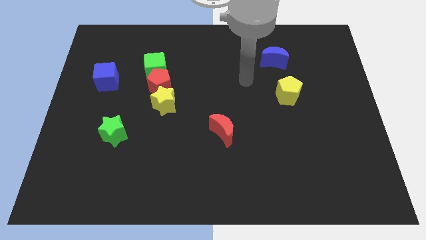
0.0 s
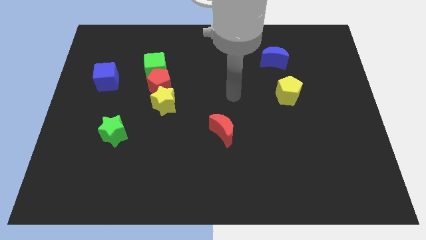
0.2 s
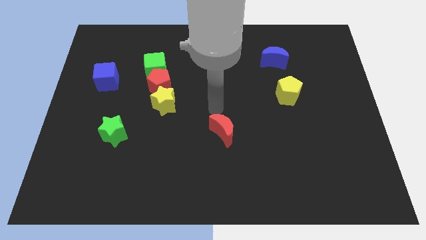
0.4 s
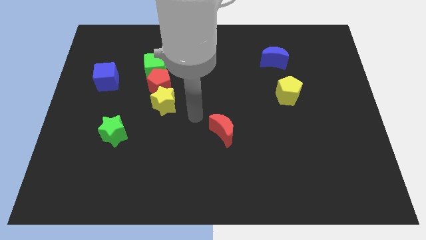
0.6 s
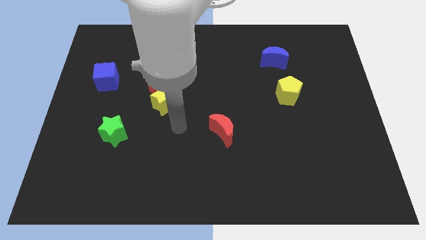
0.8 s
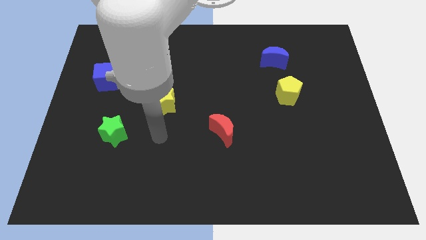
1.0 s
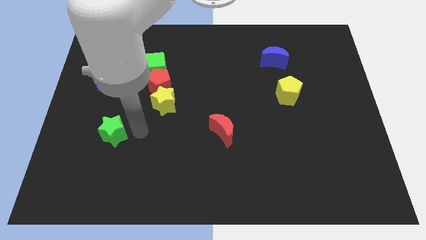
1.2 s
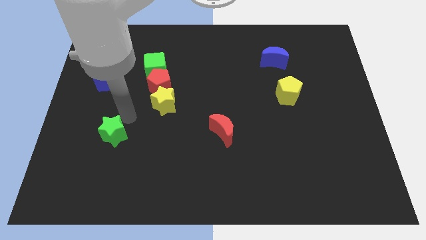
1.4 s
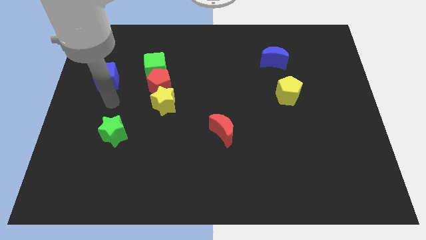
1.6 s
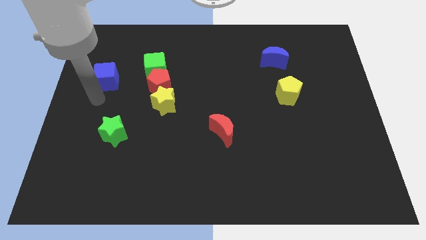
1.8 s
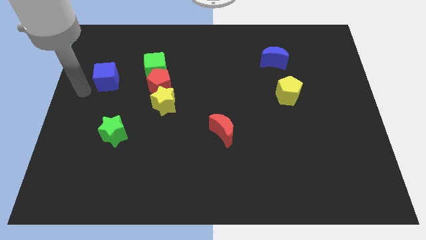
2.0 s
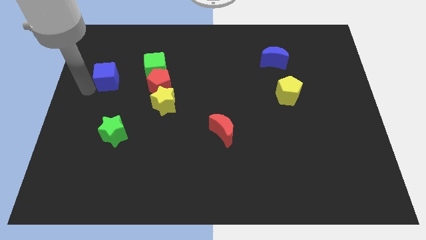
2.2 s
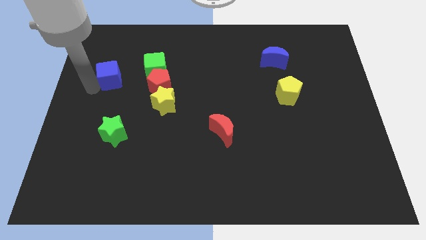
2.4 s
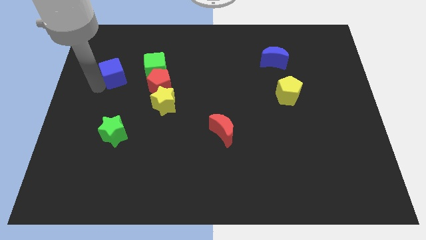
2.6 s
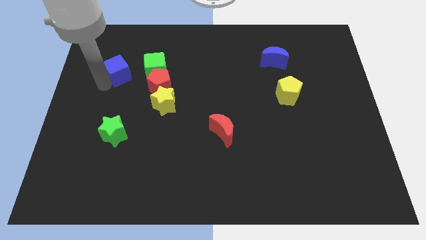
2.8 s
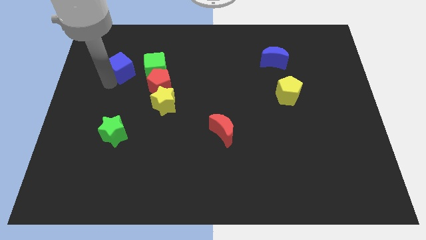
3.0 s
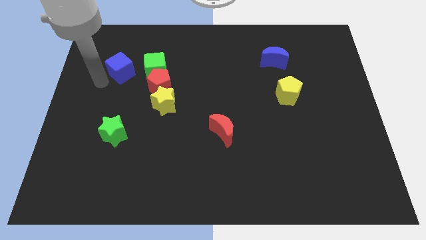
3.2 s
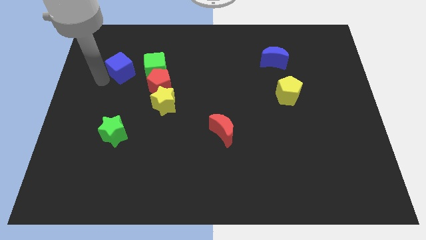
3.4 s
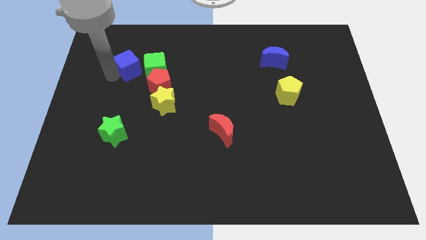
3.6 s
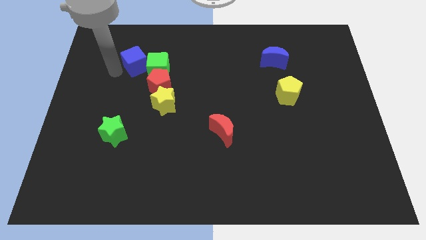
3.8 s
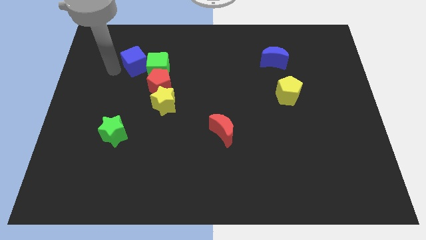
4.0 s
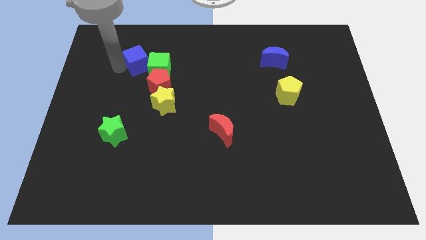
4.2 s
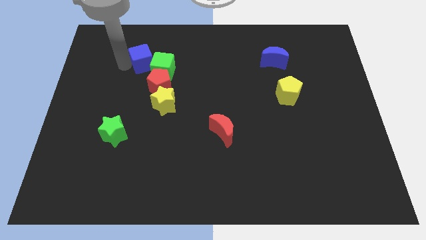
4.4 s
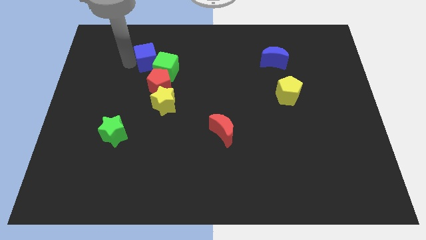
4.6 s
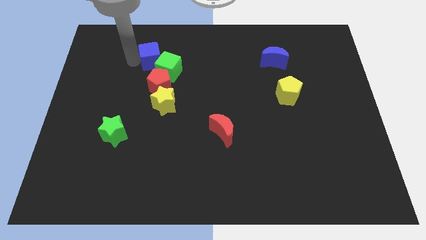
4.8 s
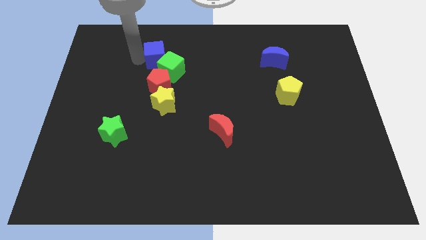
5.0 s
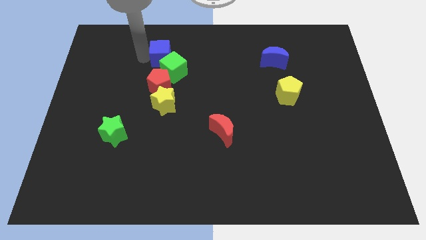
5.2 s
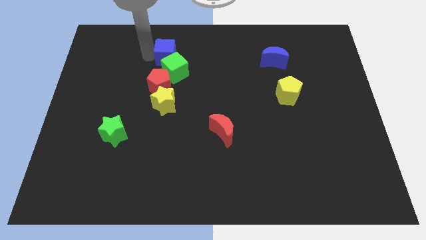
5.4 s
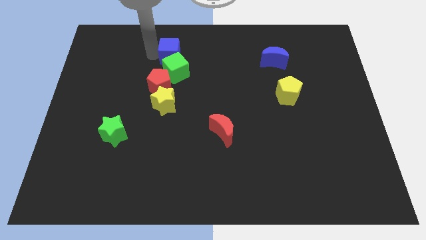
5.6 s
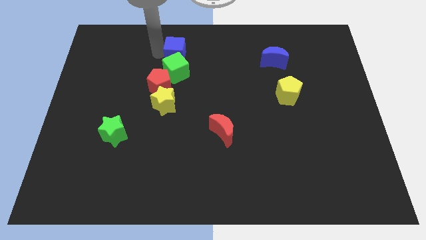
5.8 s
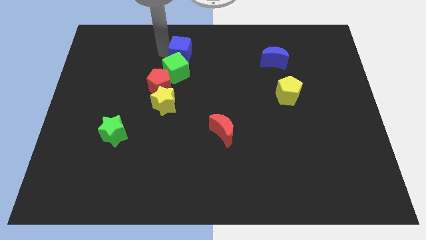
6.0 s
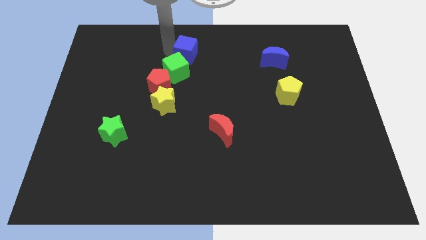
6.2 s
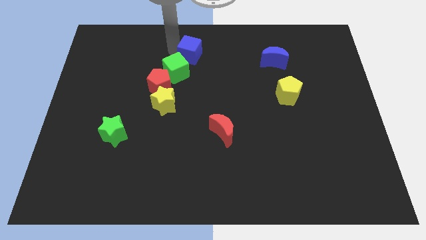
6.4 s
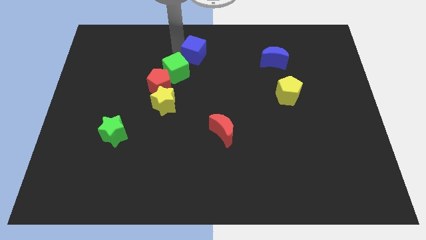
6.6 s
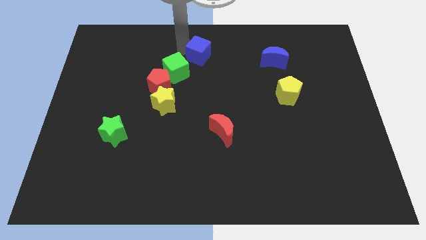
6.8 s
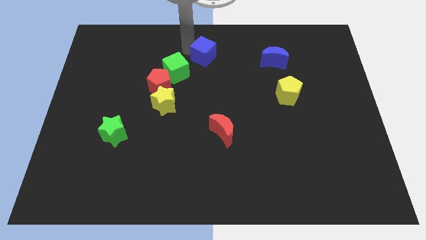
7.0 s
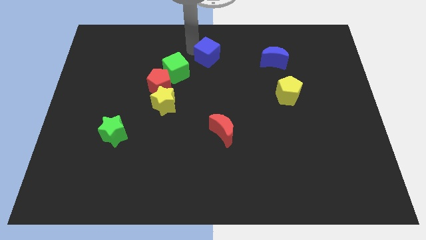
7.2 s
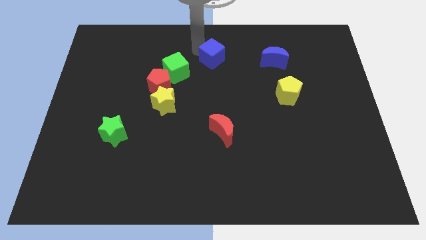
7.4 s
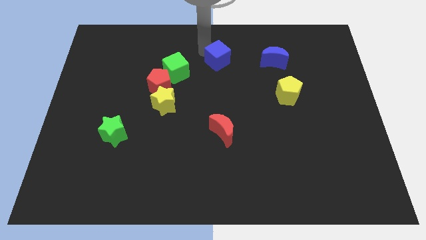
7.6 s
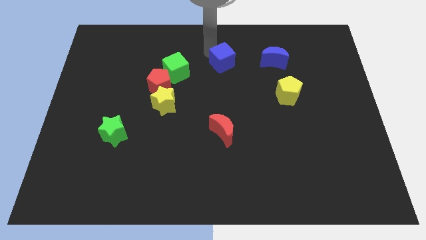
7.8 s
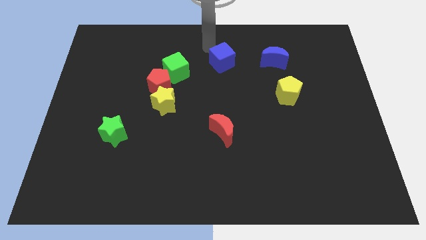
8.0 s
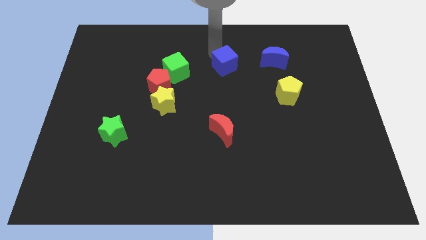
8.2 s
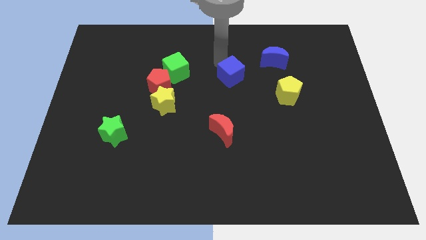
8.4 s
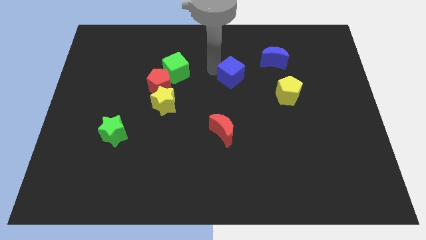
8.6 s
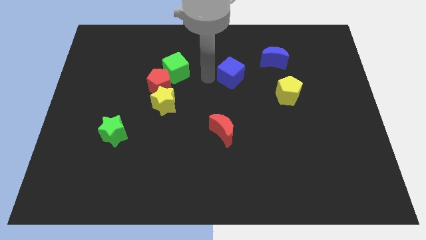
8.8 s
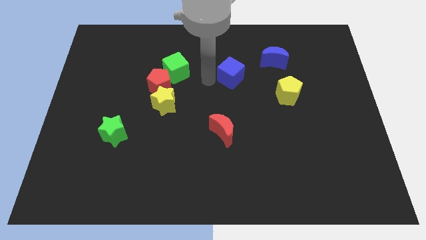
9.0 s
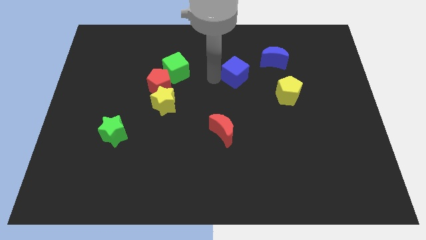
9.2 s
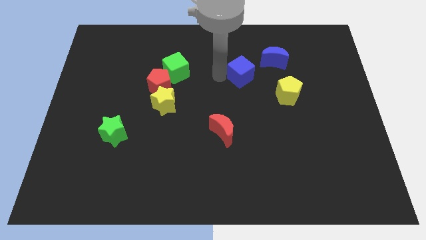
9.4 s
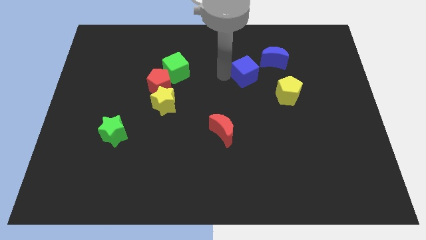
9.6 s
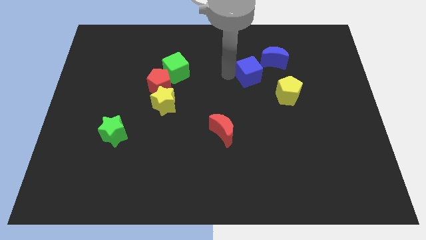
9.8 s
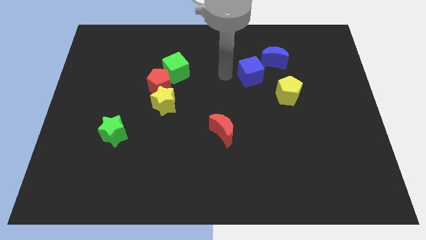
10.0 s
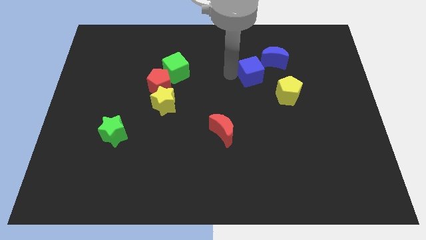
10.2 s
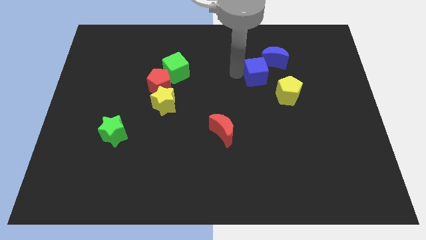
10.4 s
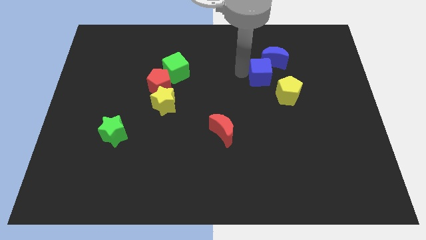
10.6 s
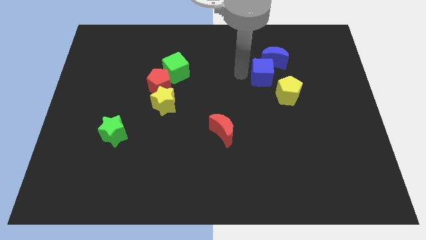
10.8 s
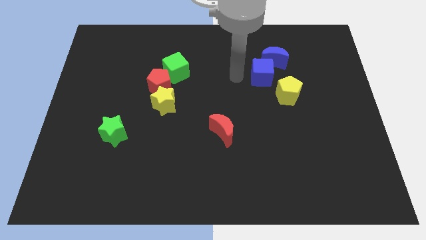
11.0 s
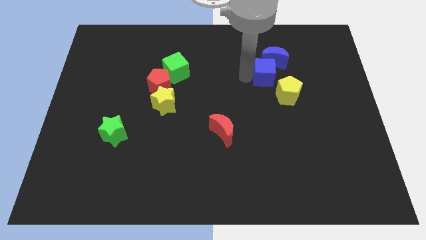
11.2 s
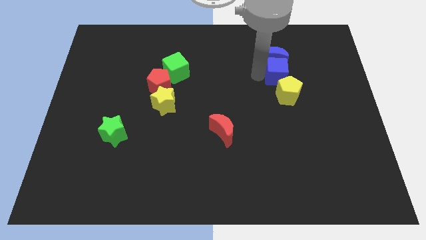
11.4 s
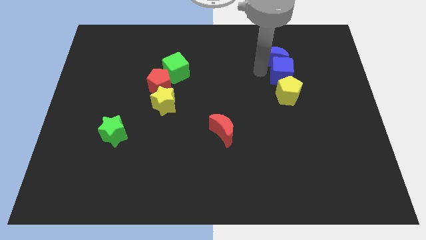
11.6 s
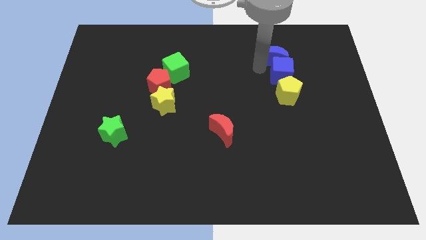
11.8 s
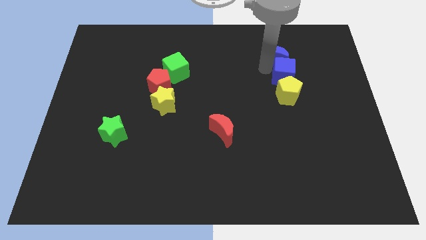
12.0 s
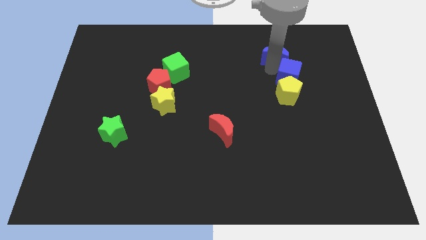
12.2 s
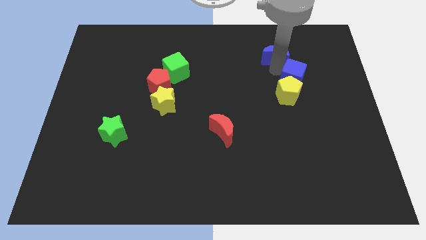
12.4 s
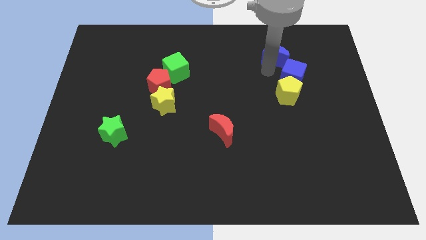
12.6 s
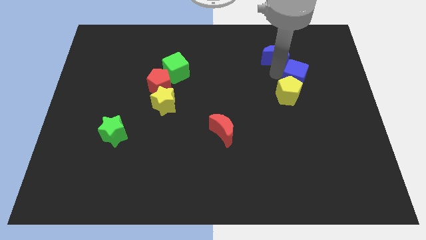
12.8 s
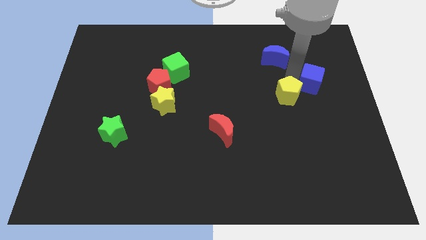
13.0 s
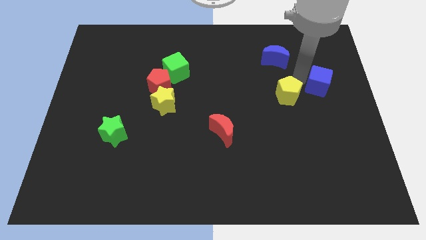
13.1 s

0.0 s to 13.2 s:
move the blue cube to the center right
